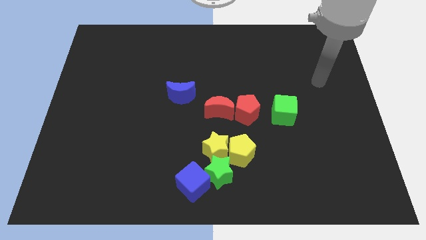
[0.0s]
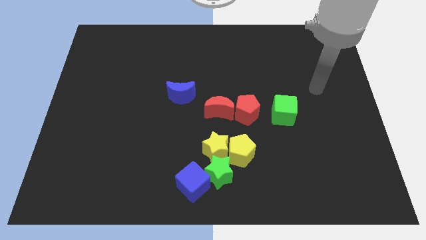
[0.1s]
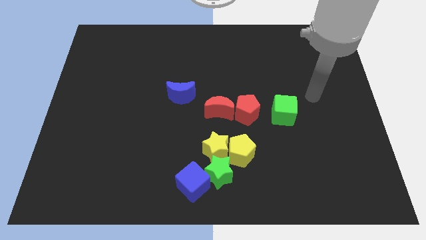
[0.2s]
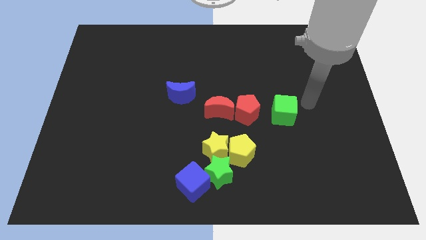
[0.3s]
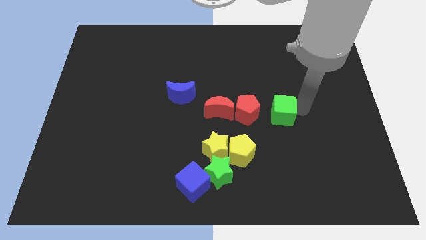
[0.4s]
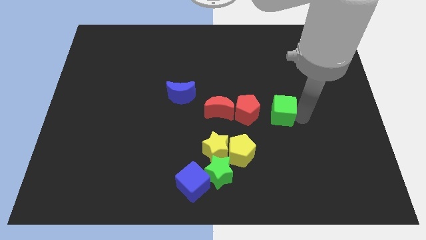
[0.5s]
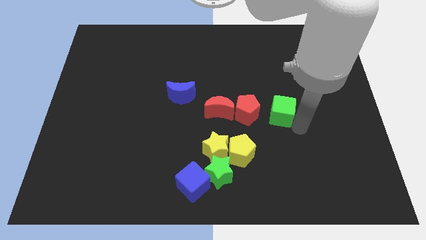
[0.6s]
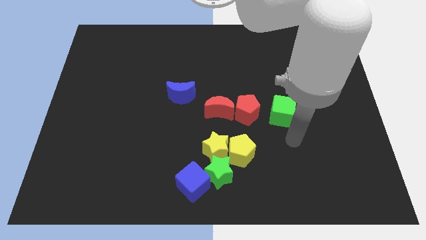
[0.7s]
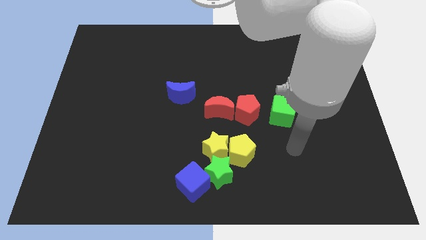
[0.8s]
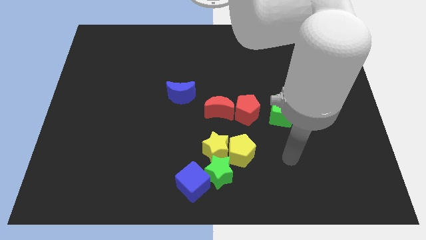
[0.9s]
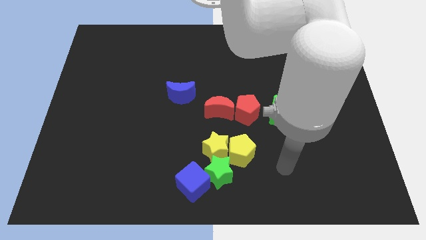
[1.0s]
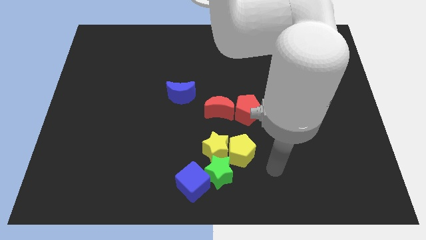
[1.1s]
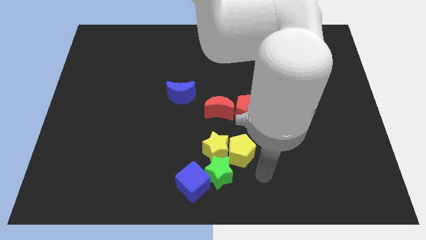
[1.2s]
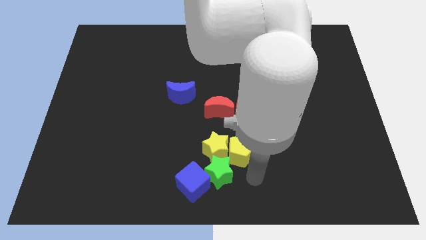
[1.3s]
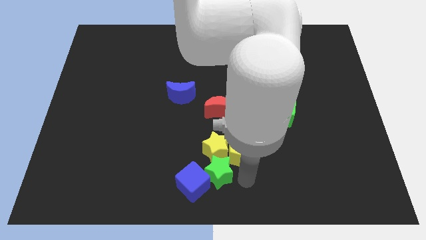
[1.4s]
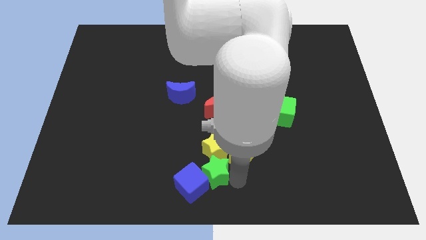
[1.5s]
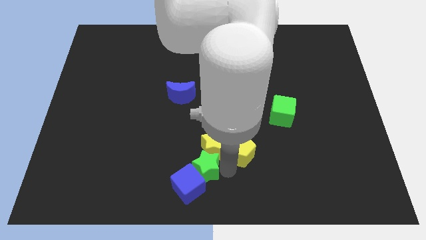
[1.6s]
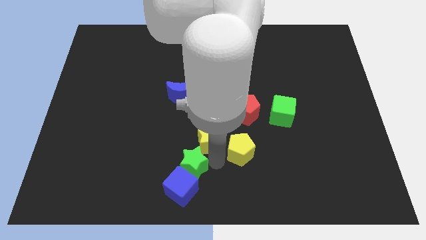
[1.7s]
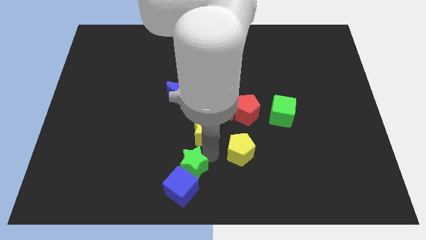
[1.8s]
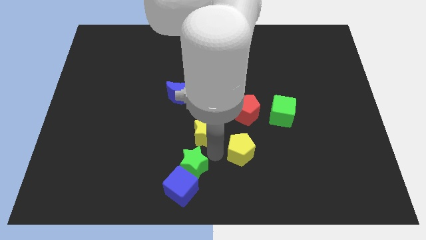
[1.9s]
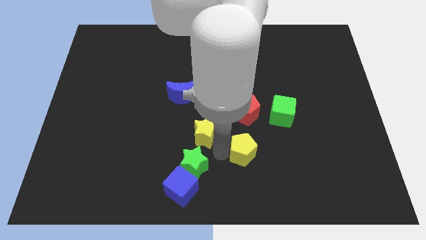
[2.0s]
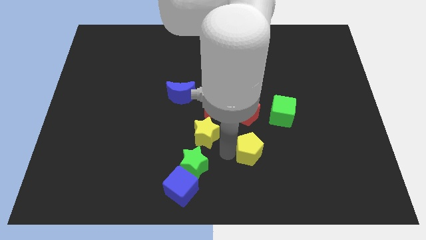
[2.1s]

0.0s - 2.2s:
separate the yellow pentagon from the yellow star and green star

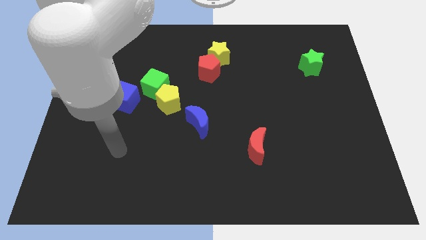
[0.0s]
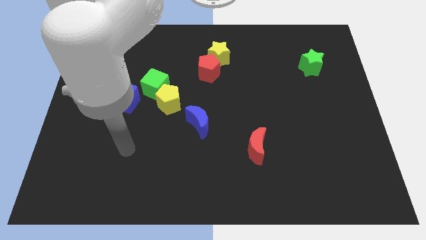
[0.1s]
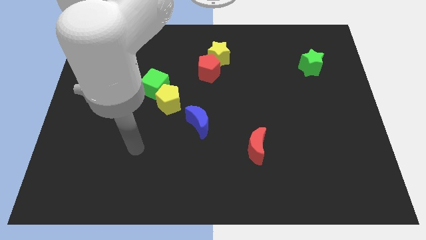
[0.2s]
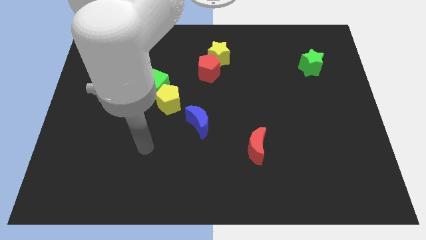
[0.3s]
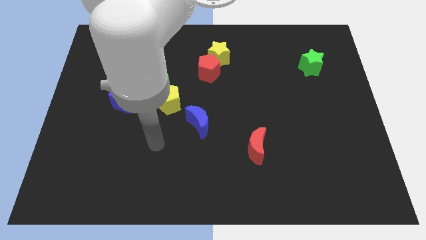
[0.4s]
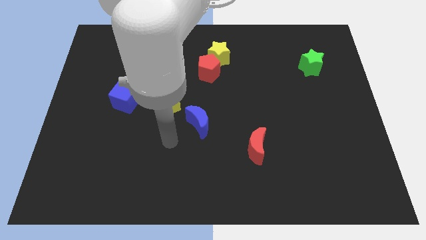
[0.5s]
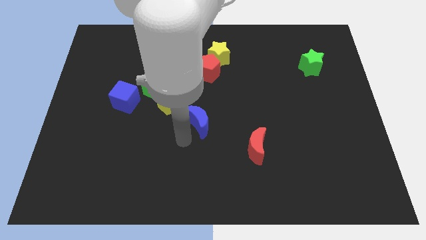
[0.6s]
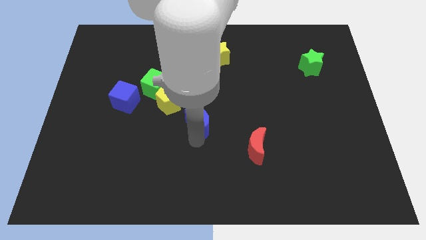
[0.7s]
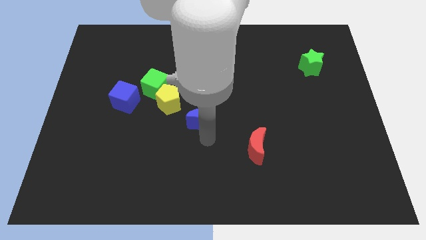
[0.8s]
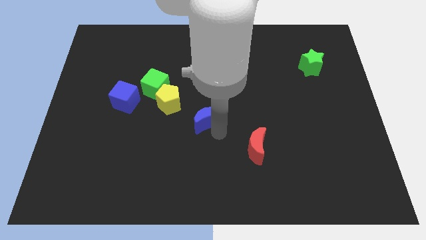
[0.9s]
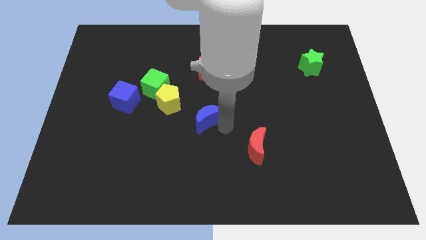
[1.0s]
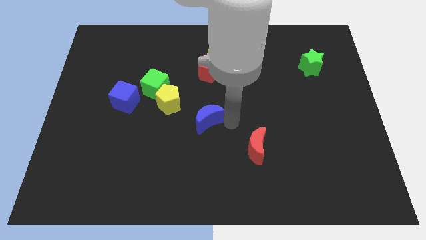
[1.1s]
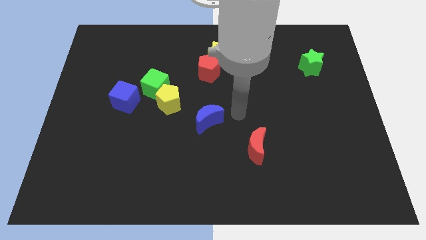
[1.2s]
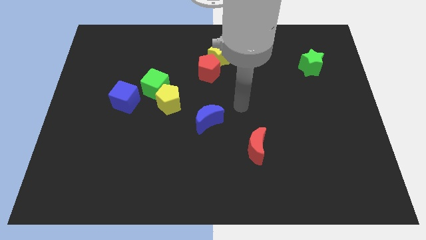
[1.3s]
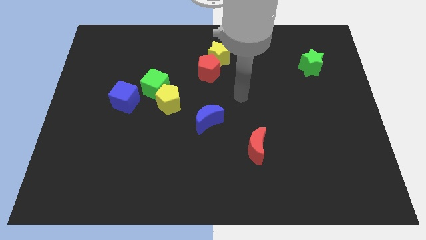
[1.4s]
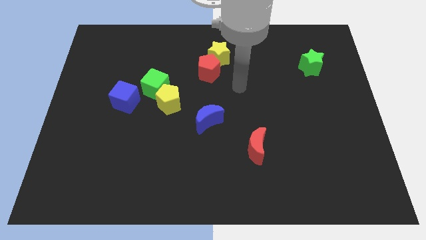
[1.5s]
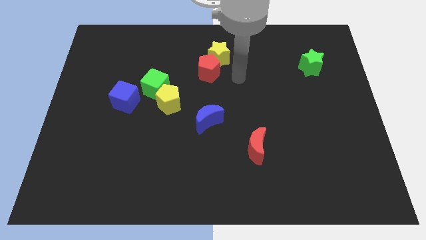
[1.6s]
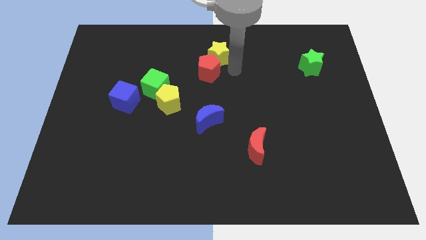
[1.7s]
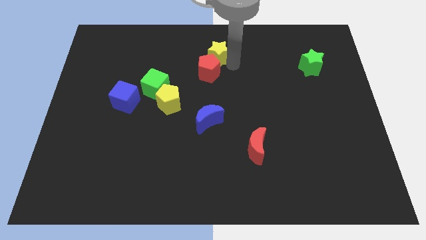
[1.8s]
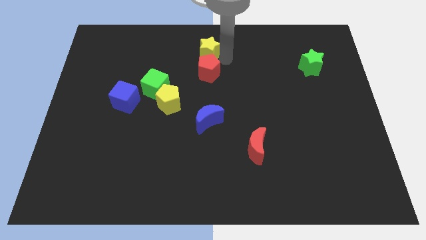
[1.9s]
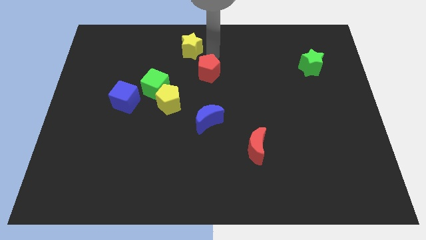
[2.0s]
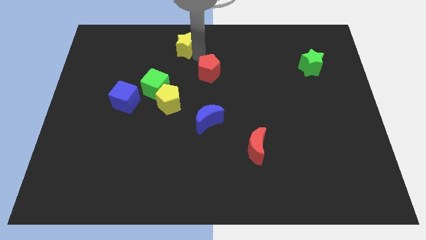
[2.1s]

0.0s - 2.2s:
separate the red pentagon from the yellow star

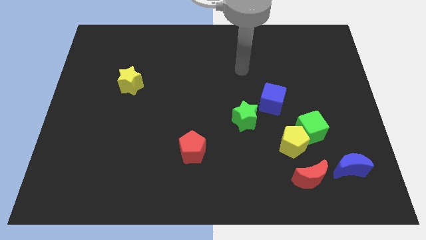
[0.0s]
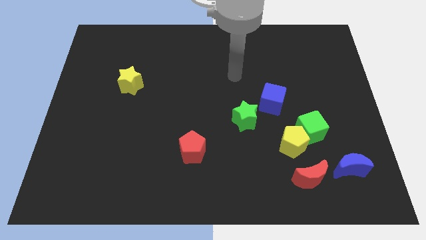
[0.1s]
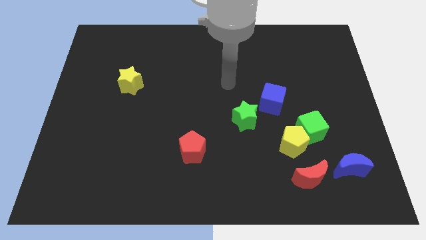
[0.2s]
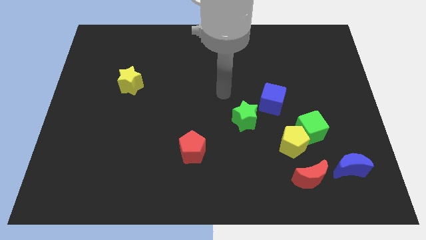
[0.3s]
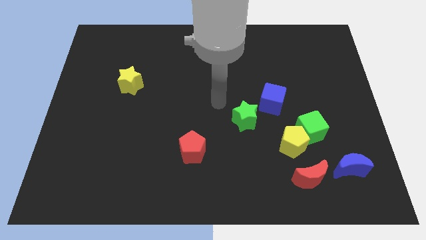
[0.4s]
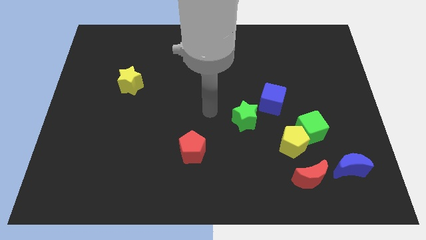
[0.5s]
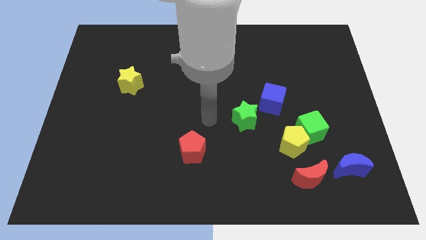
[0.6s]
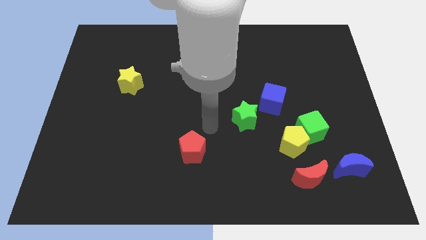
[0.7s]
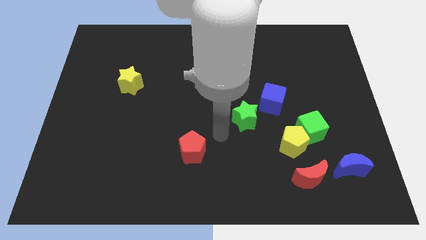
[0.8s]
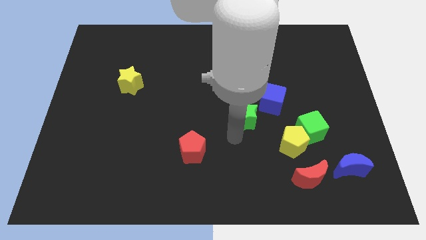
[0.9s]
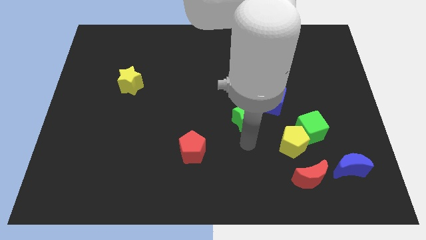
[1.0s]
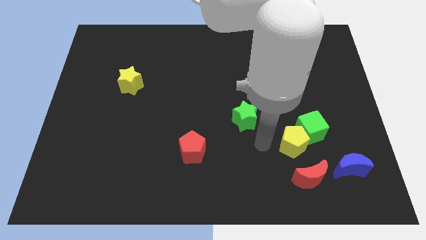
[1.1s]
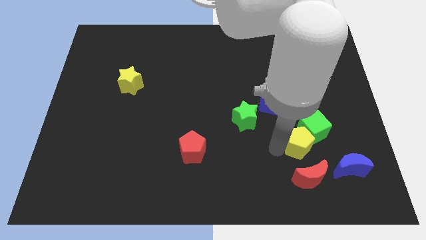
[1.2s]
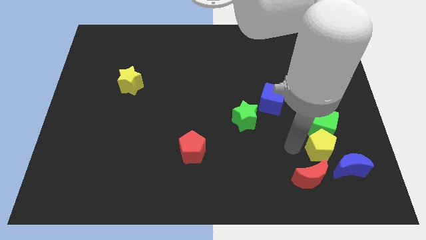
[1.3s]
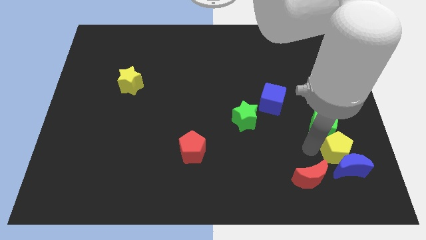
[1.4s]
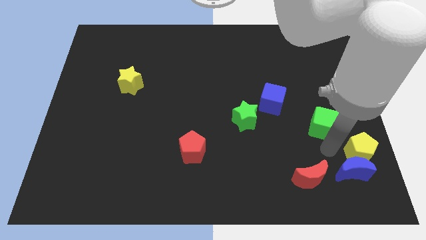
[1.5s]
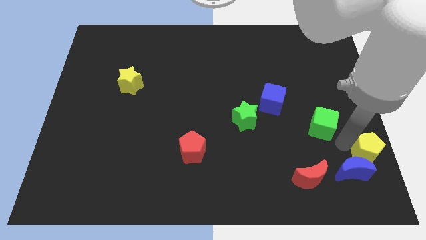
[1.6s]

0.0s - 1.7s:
move the green cube away from the yellow pentagon

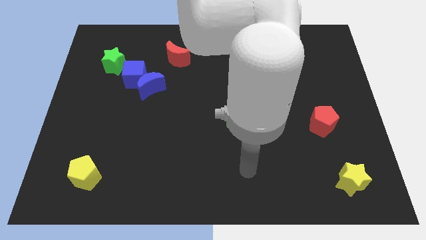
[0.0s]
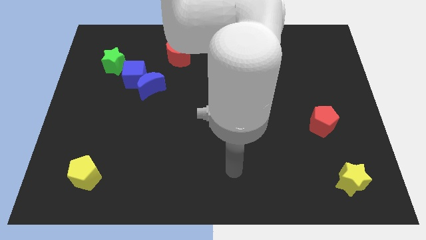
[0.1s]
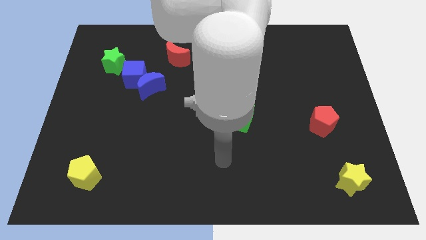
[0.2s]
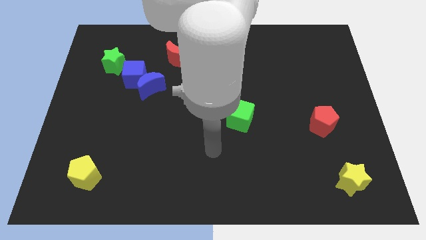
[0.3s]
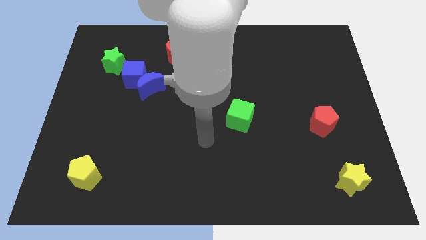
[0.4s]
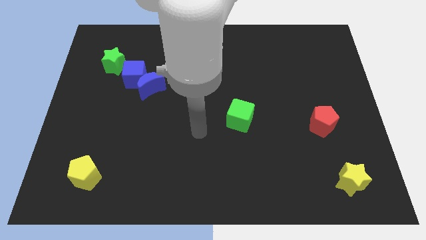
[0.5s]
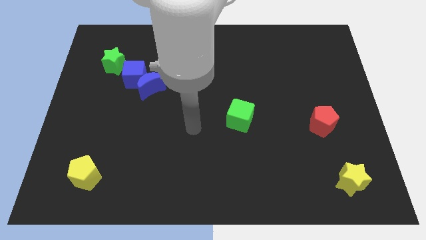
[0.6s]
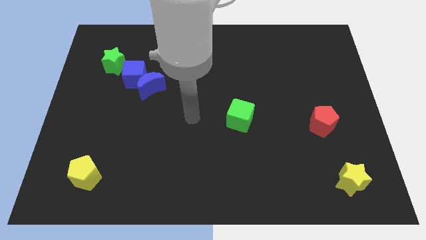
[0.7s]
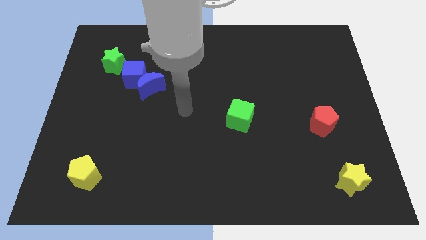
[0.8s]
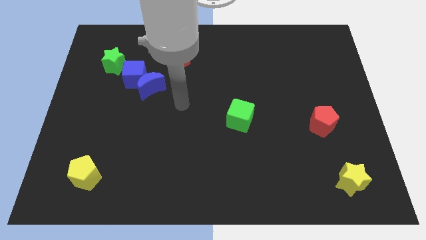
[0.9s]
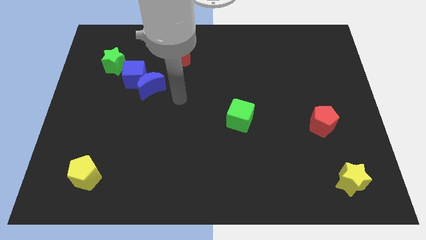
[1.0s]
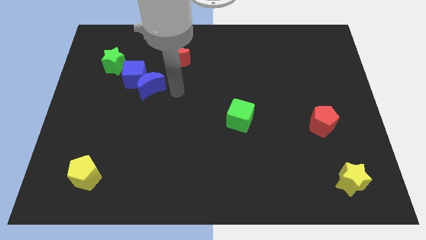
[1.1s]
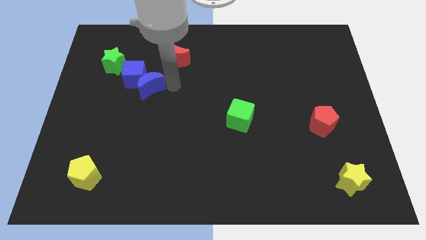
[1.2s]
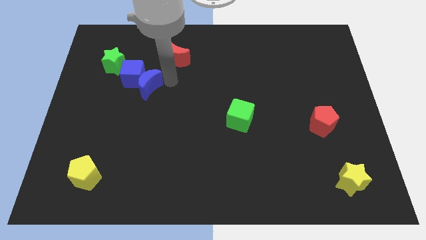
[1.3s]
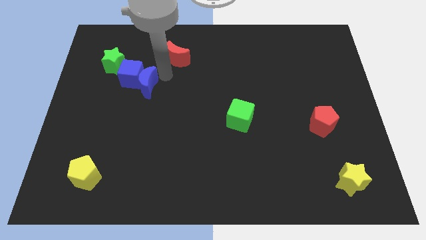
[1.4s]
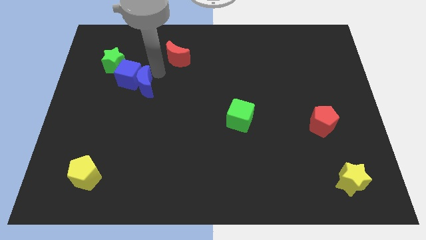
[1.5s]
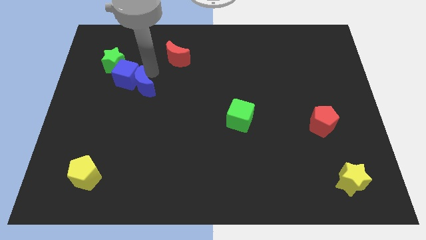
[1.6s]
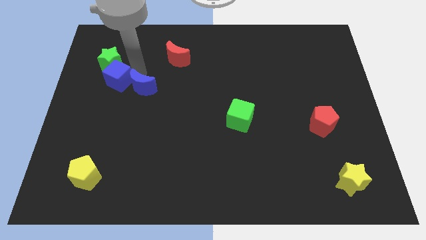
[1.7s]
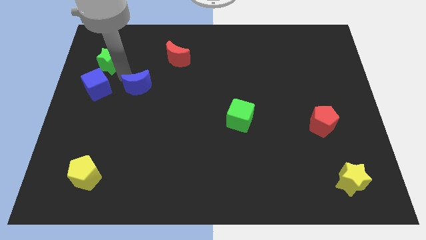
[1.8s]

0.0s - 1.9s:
separate the blue moon from the blue cube

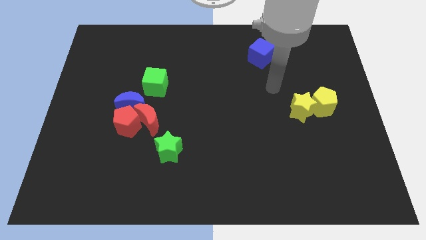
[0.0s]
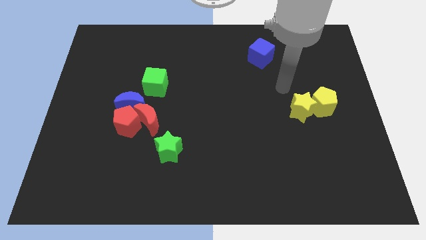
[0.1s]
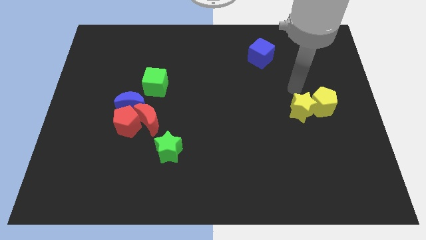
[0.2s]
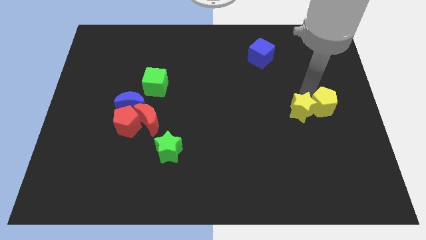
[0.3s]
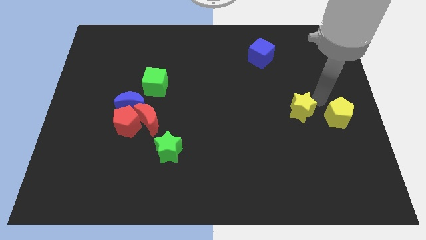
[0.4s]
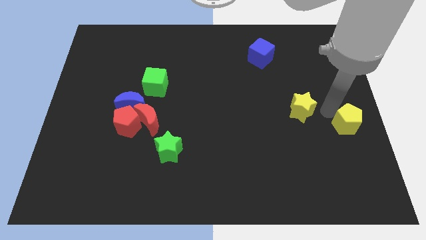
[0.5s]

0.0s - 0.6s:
pull the yellow star apart from the yellow pentagon

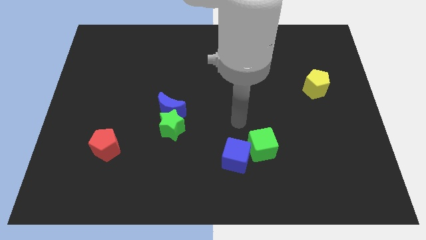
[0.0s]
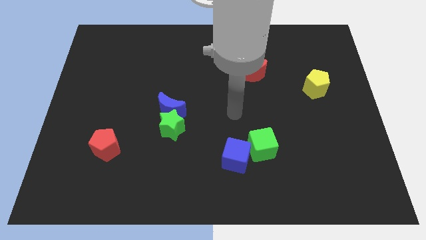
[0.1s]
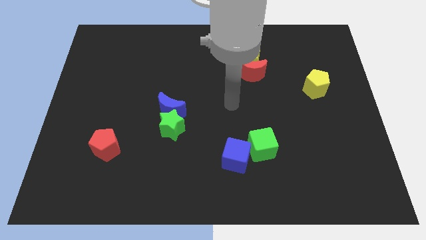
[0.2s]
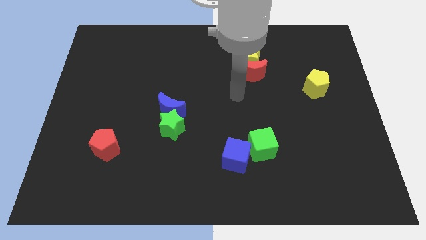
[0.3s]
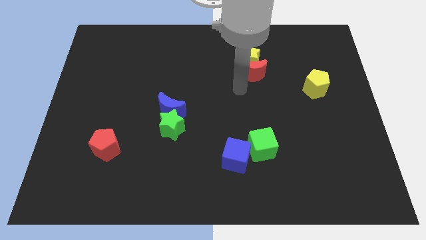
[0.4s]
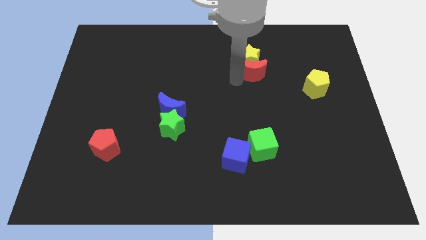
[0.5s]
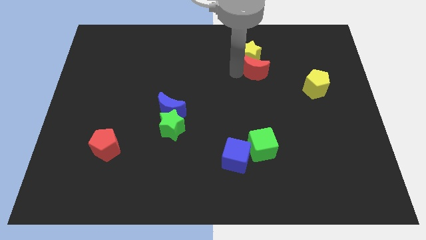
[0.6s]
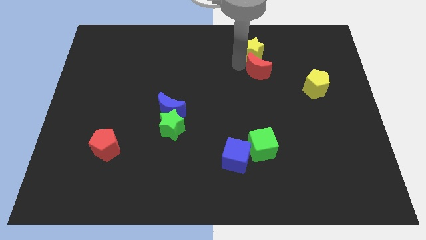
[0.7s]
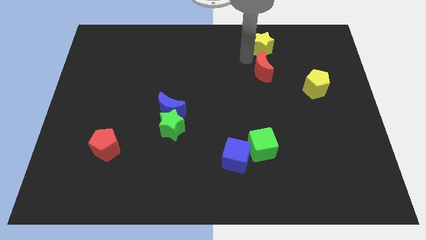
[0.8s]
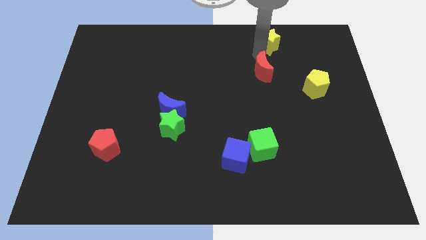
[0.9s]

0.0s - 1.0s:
separate the red moon from the yellow star
